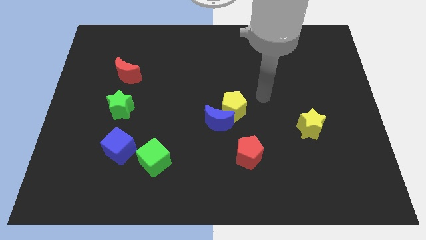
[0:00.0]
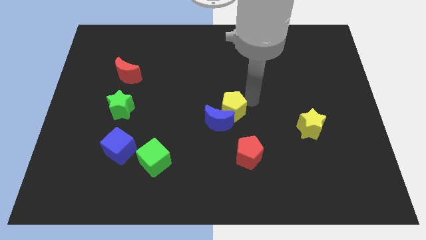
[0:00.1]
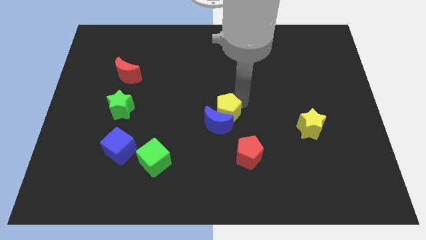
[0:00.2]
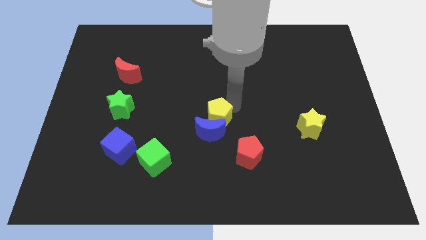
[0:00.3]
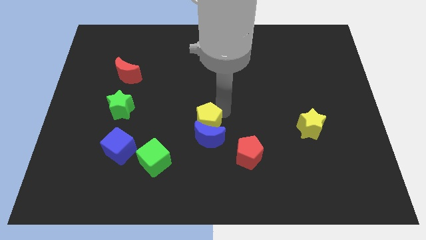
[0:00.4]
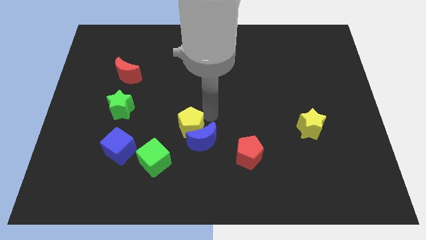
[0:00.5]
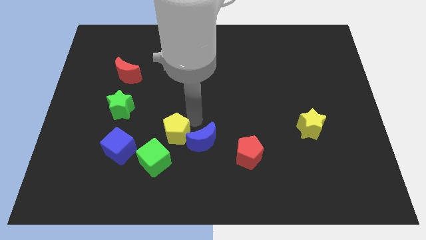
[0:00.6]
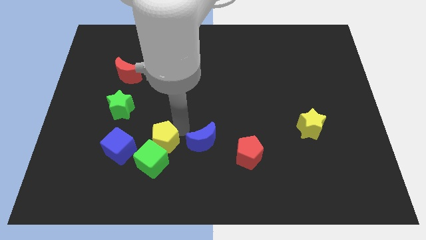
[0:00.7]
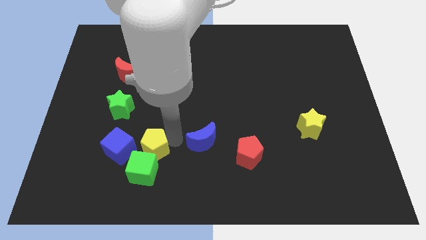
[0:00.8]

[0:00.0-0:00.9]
pull the blue moon apart from the yellow pentagon

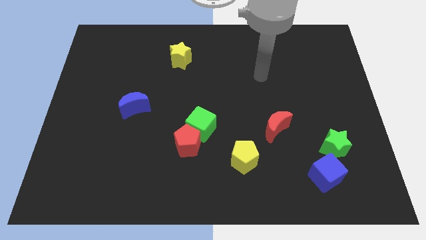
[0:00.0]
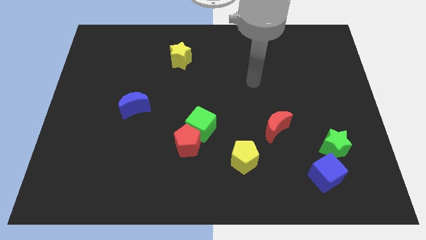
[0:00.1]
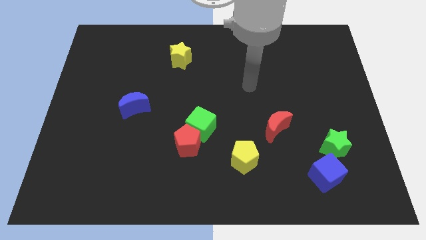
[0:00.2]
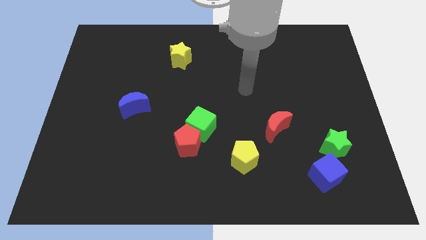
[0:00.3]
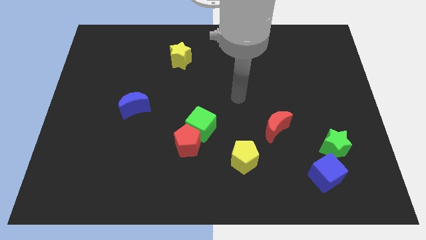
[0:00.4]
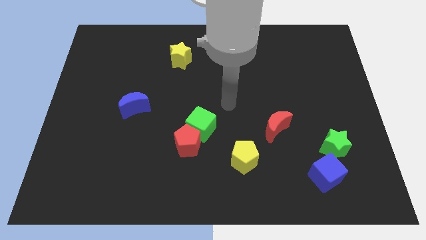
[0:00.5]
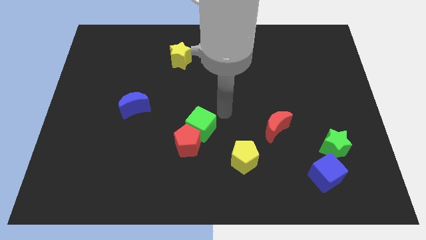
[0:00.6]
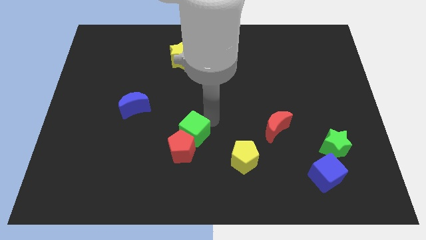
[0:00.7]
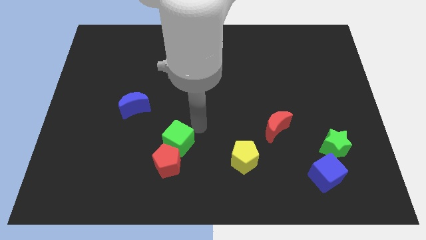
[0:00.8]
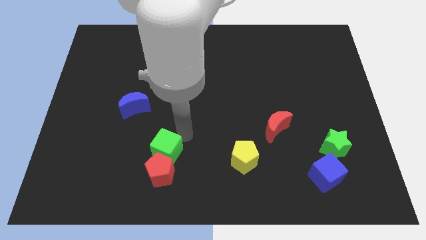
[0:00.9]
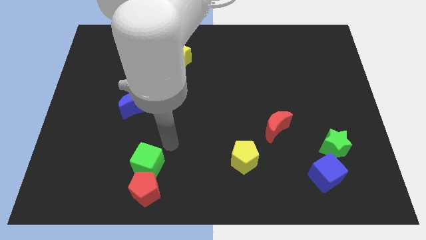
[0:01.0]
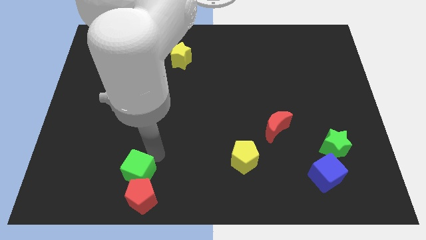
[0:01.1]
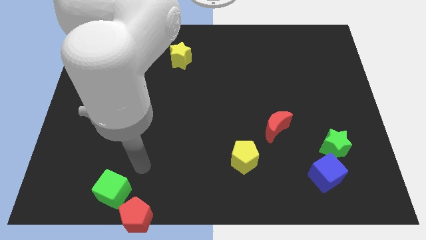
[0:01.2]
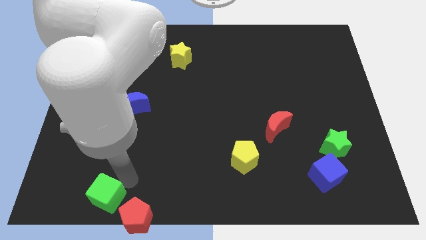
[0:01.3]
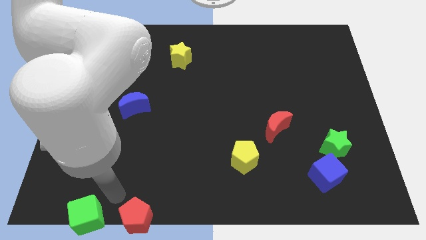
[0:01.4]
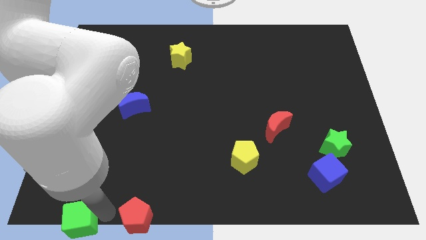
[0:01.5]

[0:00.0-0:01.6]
pull the red pentagon apart from the green cube

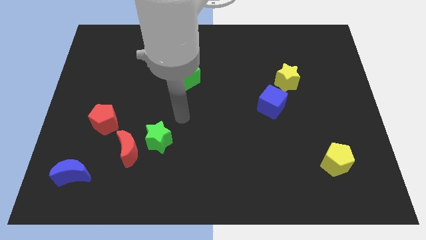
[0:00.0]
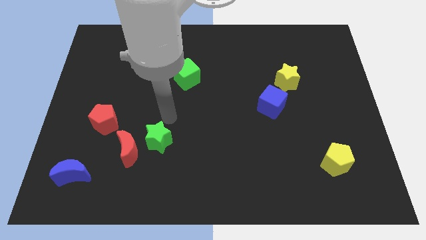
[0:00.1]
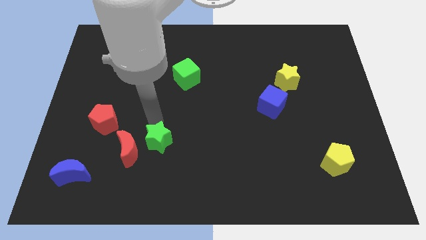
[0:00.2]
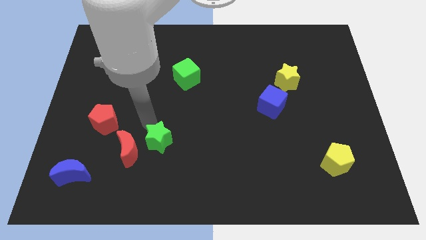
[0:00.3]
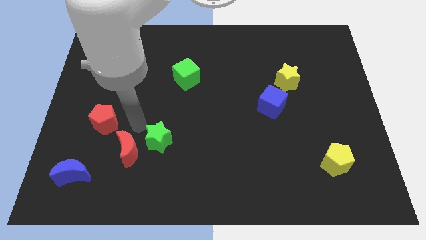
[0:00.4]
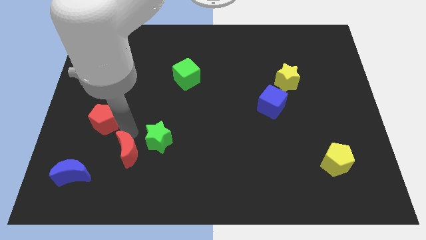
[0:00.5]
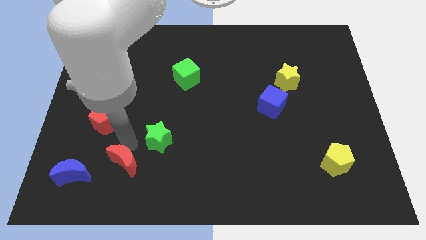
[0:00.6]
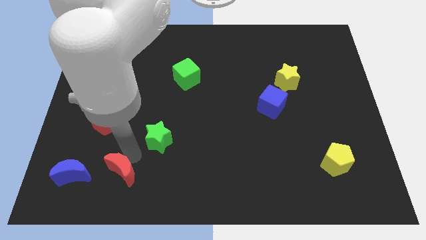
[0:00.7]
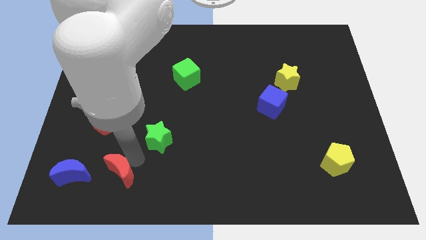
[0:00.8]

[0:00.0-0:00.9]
move the green star away from the red moon

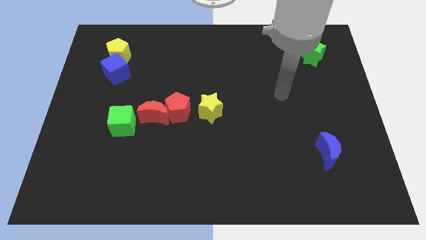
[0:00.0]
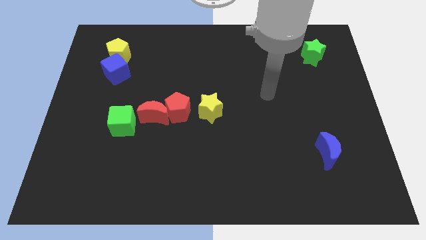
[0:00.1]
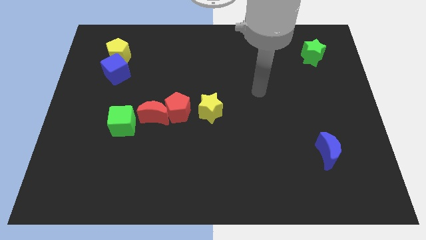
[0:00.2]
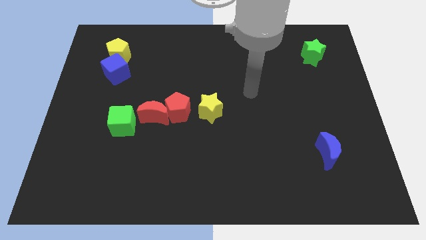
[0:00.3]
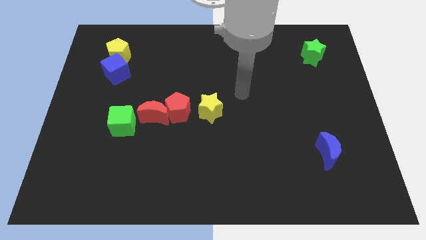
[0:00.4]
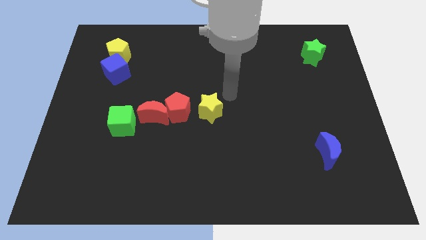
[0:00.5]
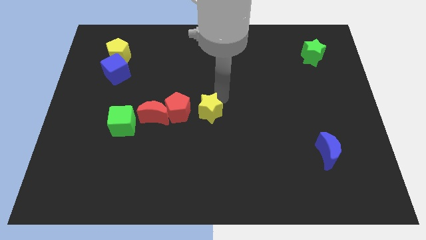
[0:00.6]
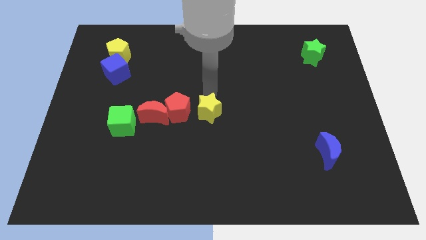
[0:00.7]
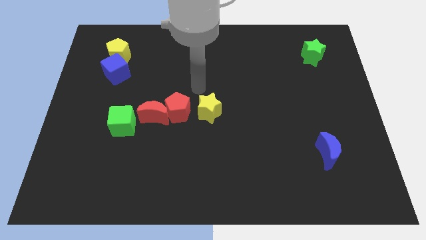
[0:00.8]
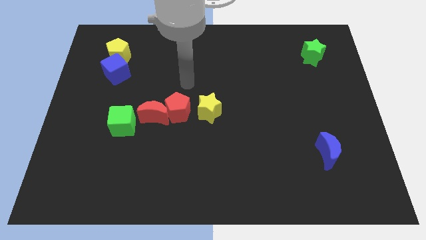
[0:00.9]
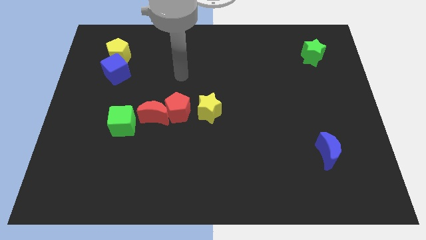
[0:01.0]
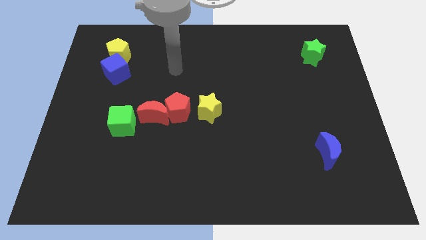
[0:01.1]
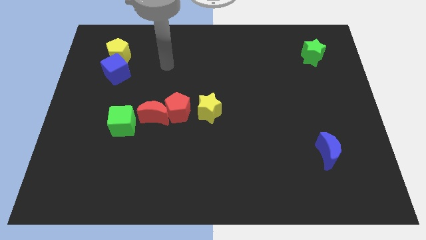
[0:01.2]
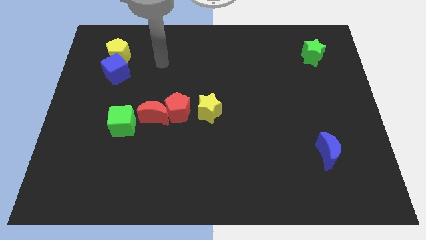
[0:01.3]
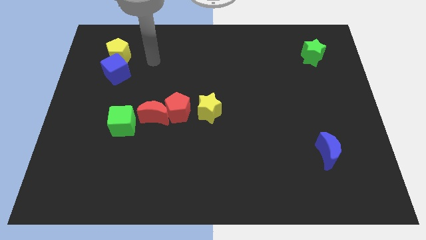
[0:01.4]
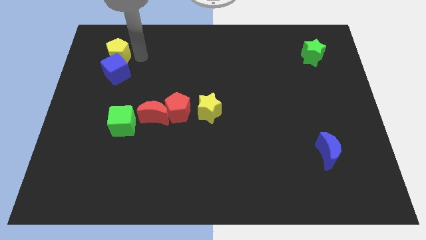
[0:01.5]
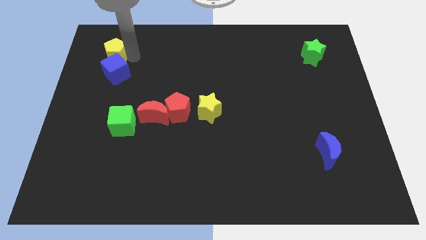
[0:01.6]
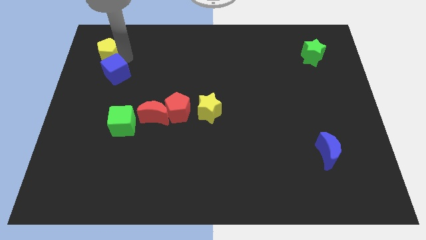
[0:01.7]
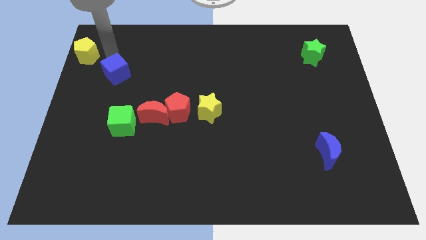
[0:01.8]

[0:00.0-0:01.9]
separate the blue cube from the yellow pentagon

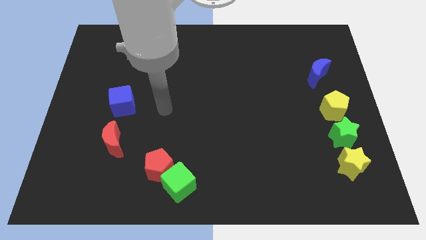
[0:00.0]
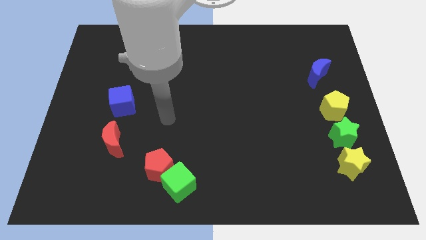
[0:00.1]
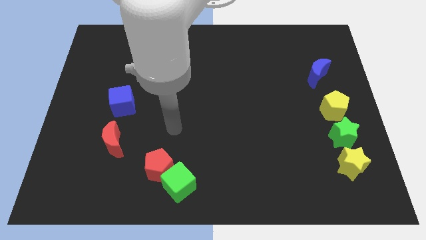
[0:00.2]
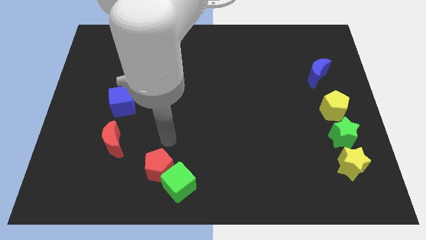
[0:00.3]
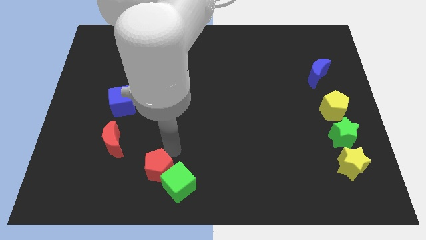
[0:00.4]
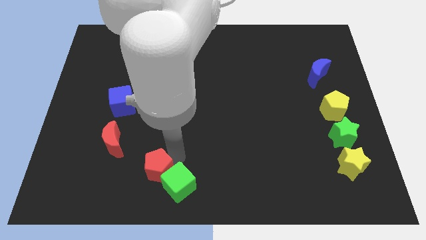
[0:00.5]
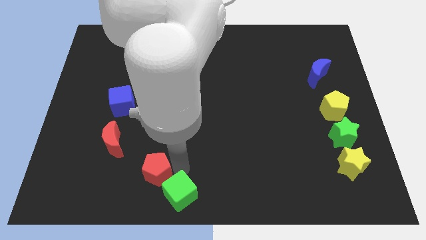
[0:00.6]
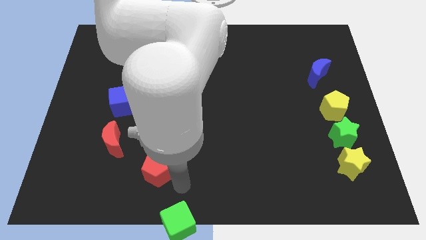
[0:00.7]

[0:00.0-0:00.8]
move the red pentagon away from the green cube

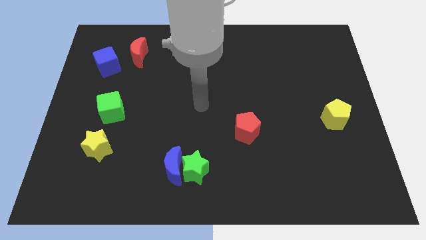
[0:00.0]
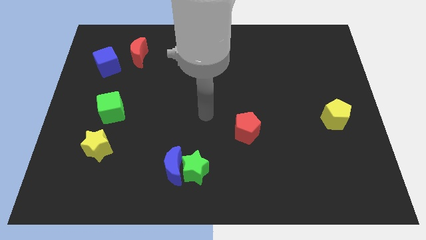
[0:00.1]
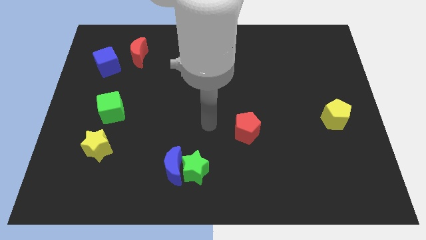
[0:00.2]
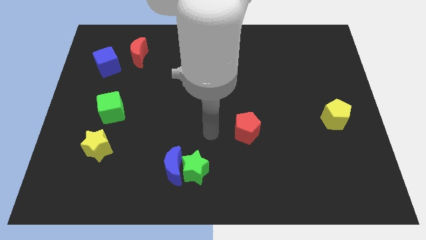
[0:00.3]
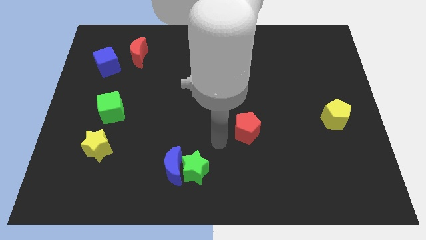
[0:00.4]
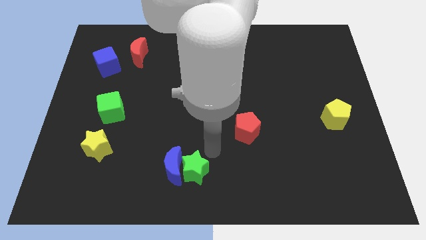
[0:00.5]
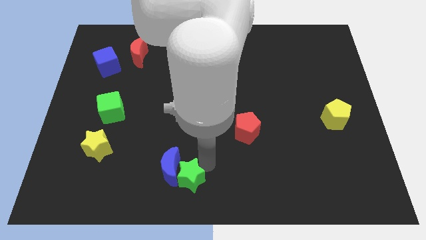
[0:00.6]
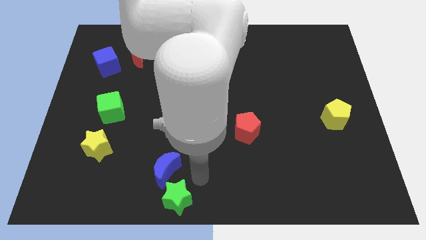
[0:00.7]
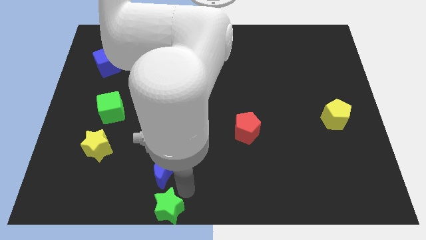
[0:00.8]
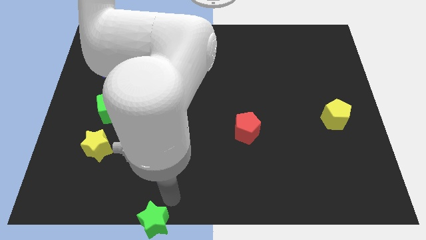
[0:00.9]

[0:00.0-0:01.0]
separate the blue moon from the green star

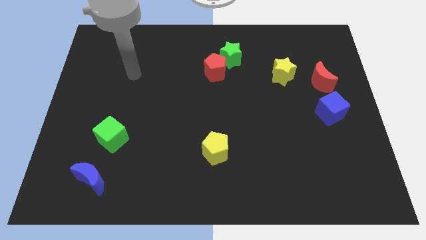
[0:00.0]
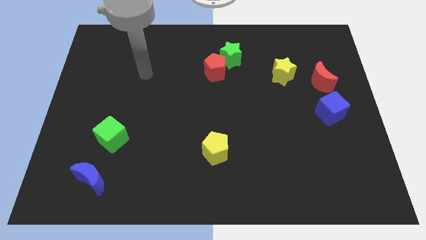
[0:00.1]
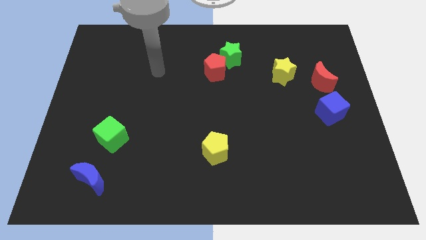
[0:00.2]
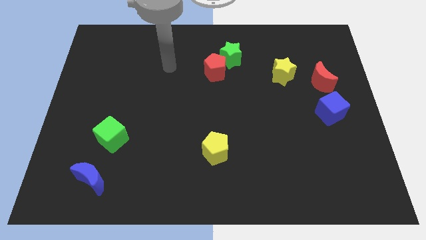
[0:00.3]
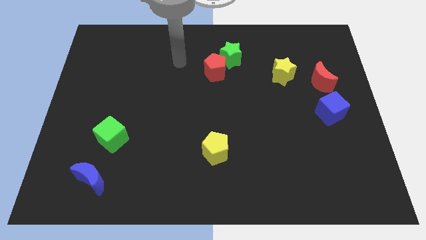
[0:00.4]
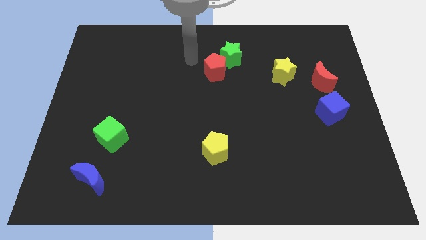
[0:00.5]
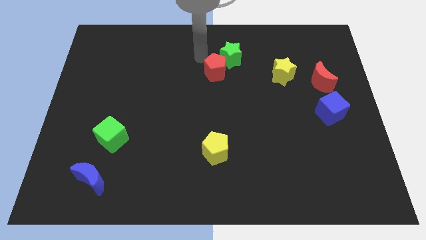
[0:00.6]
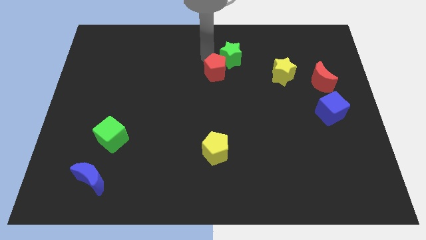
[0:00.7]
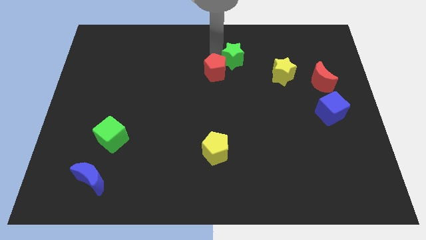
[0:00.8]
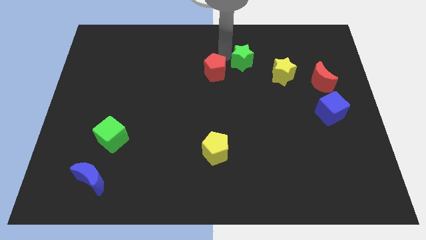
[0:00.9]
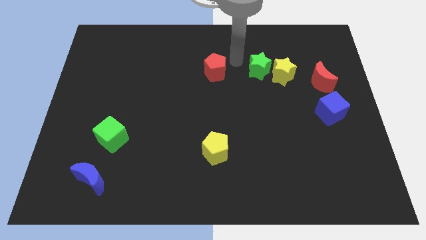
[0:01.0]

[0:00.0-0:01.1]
move the red pentagon away from the green star

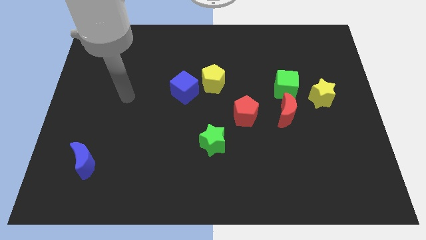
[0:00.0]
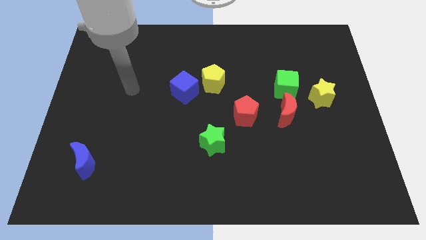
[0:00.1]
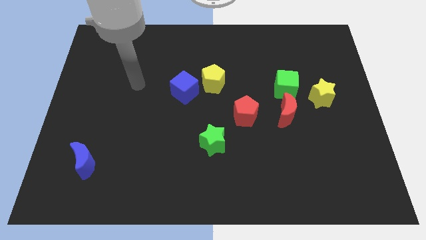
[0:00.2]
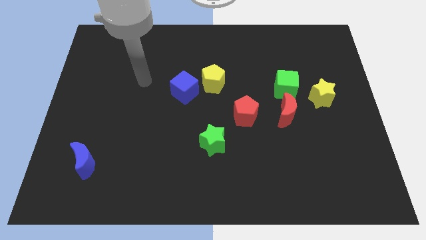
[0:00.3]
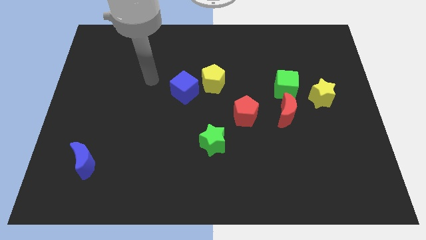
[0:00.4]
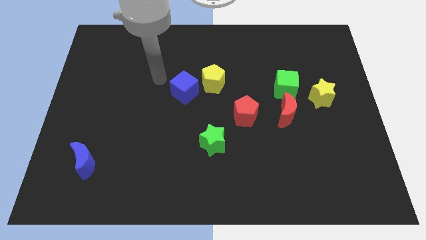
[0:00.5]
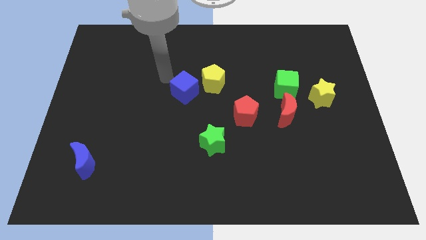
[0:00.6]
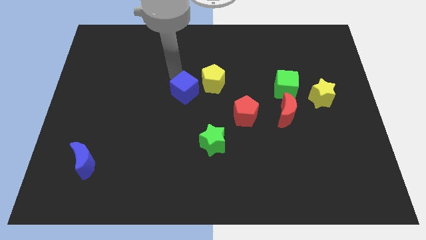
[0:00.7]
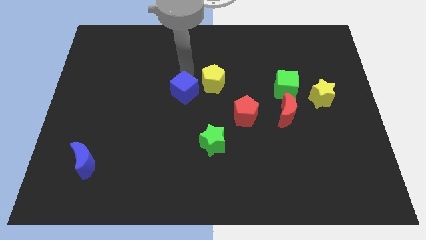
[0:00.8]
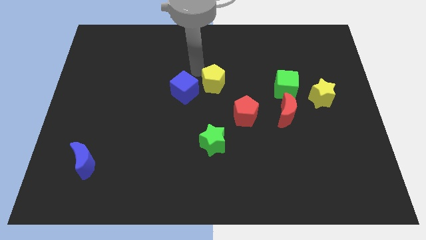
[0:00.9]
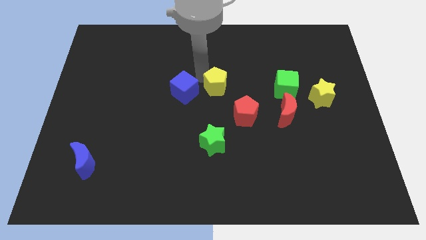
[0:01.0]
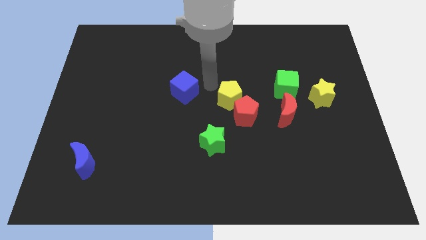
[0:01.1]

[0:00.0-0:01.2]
pull the blue cube apart from the yellow pentagon
